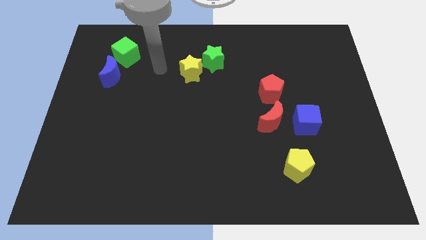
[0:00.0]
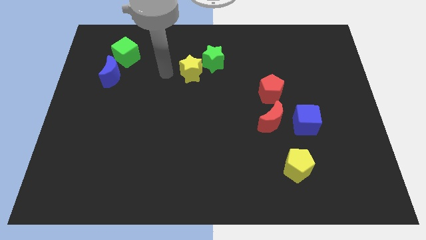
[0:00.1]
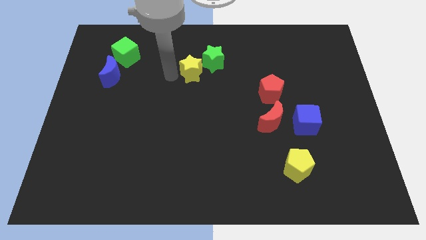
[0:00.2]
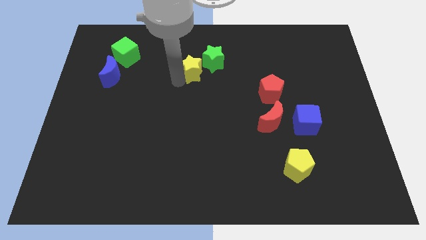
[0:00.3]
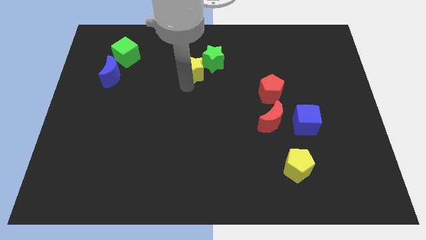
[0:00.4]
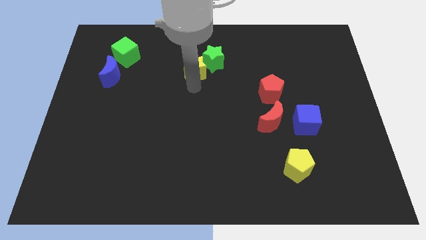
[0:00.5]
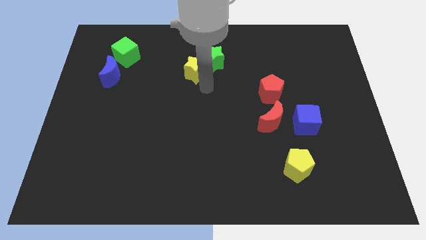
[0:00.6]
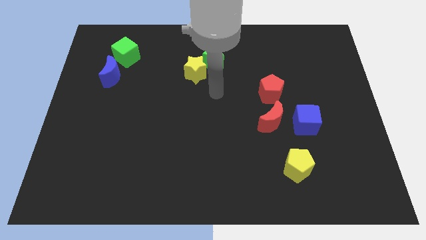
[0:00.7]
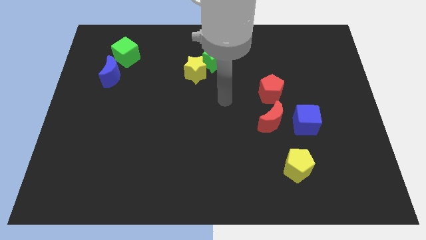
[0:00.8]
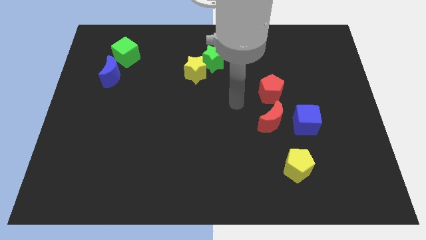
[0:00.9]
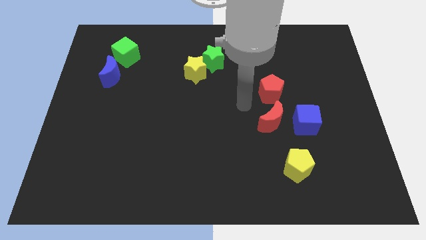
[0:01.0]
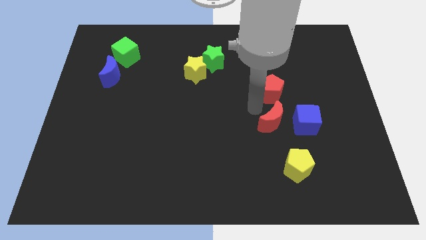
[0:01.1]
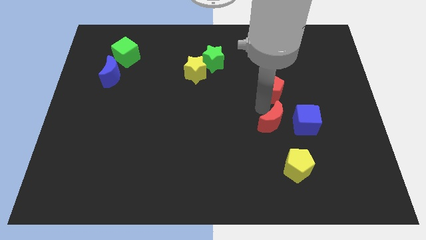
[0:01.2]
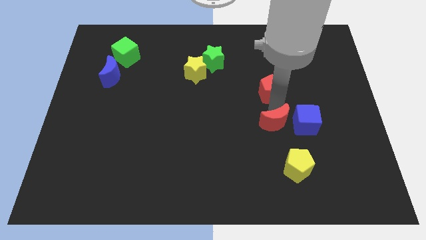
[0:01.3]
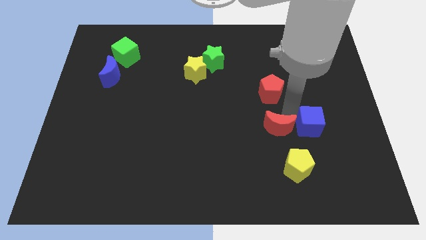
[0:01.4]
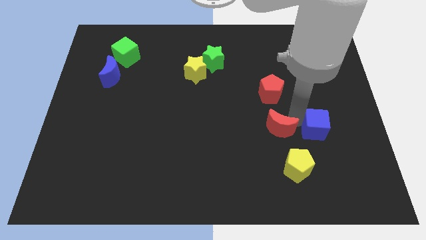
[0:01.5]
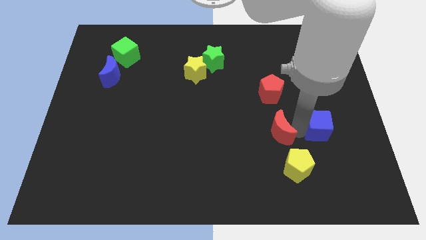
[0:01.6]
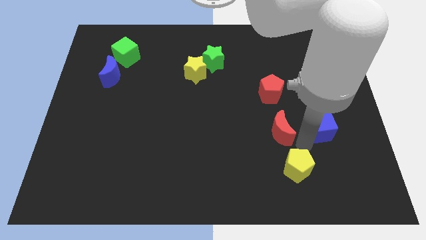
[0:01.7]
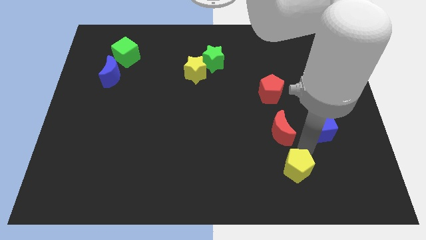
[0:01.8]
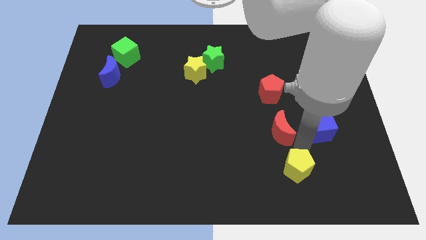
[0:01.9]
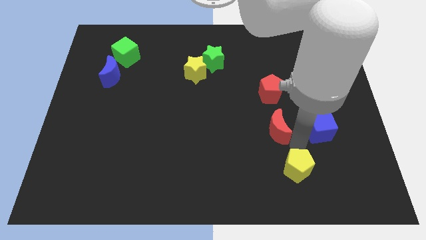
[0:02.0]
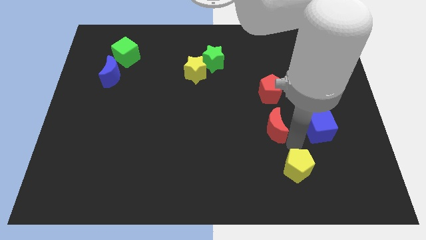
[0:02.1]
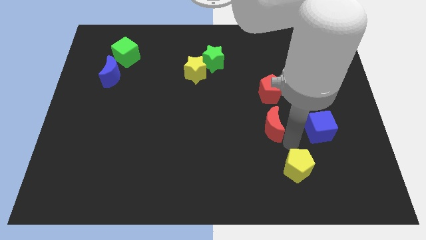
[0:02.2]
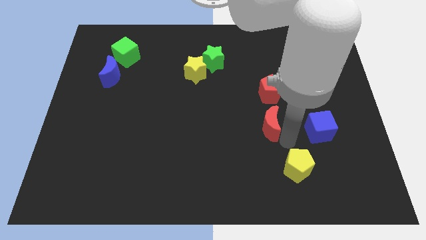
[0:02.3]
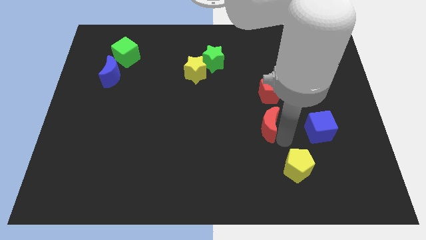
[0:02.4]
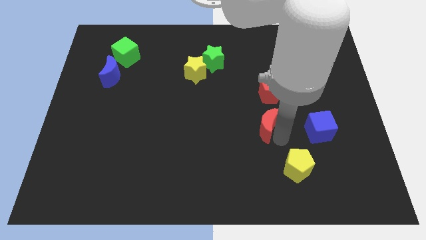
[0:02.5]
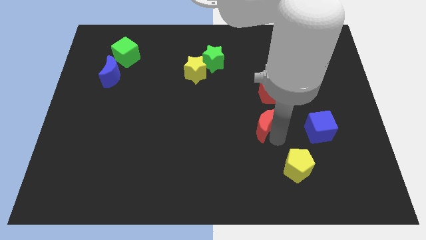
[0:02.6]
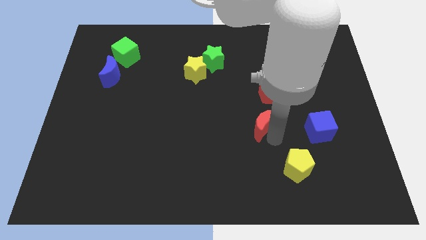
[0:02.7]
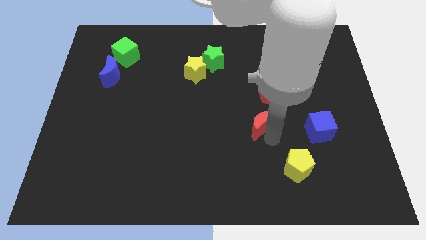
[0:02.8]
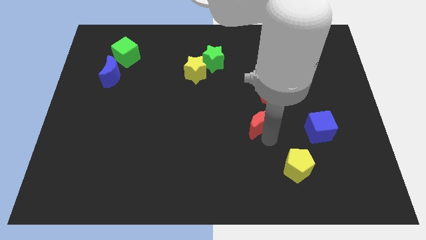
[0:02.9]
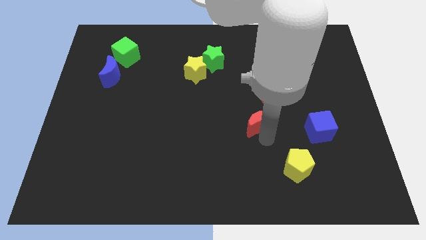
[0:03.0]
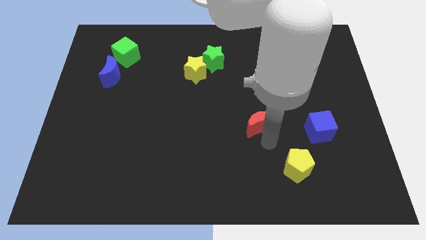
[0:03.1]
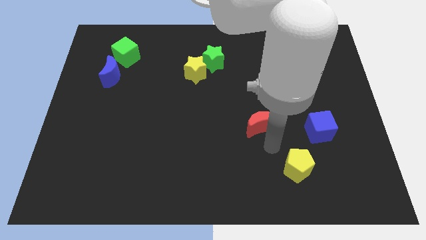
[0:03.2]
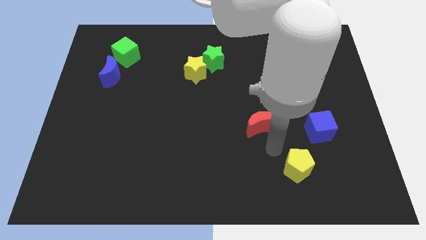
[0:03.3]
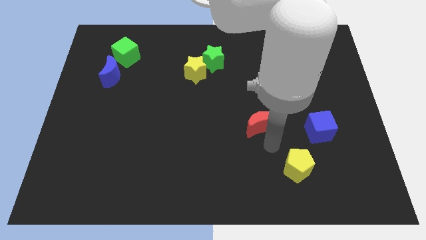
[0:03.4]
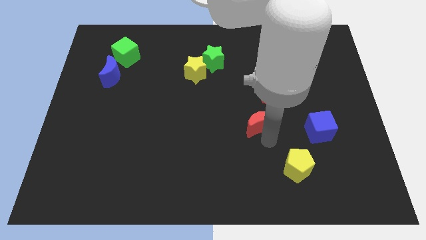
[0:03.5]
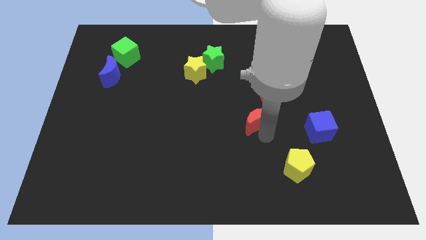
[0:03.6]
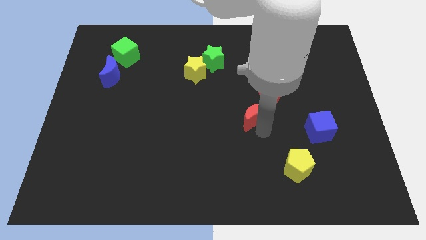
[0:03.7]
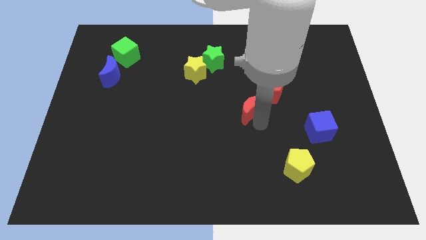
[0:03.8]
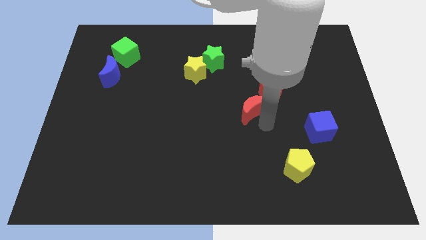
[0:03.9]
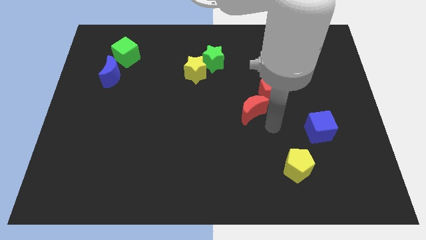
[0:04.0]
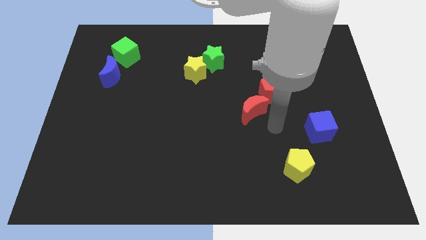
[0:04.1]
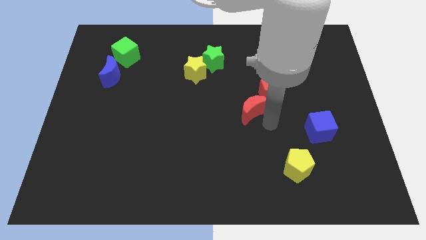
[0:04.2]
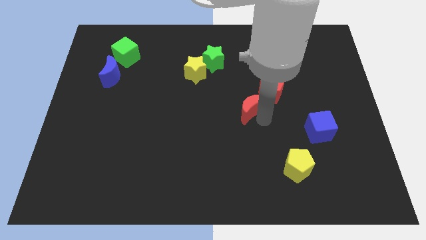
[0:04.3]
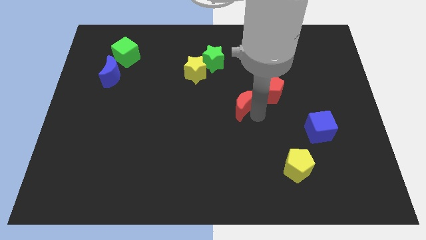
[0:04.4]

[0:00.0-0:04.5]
move the red moon up and then left a little bit

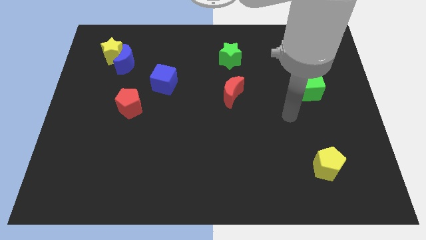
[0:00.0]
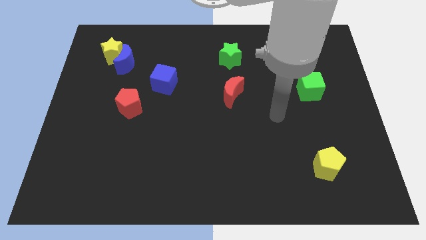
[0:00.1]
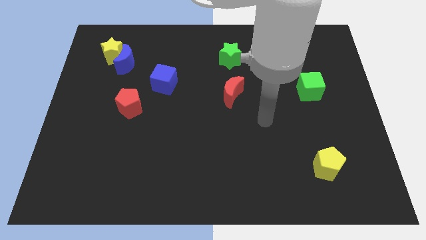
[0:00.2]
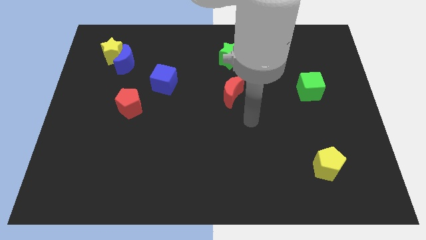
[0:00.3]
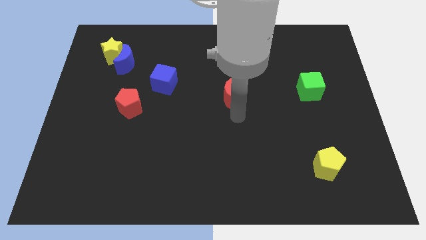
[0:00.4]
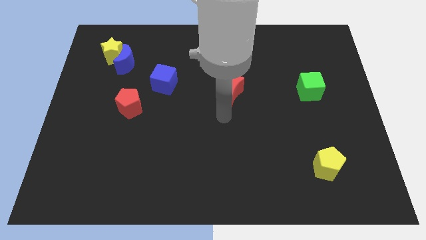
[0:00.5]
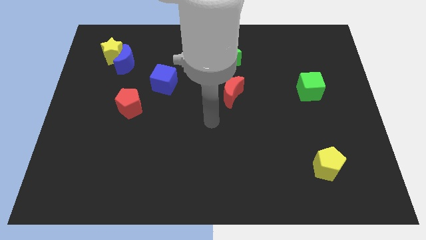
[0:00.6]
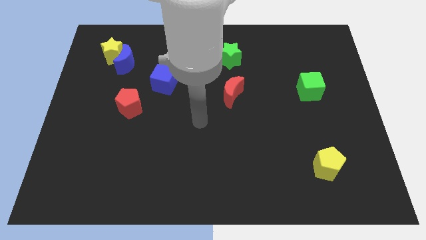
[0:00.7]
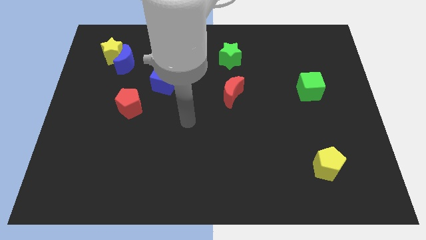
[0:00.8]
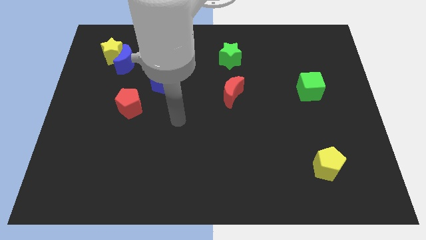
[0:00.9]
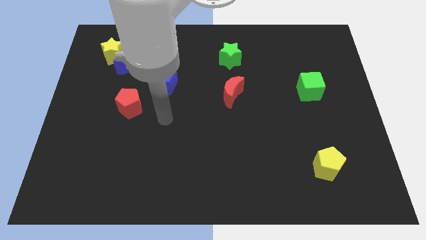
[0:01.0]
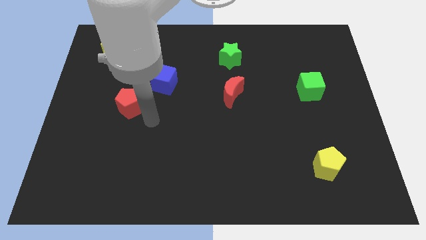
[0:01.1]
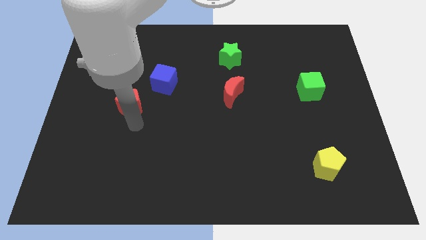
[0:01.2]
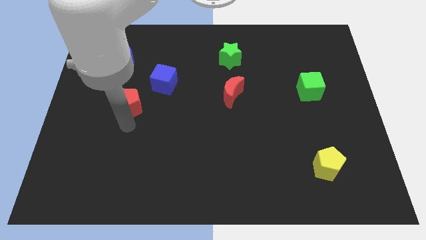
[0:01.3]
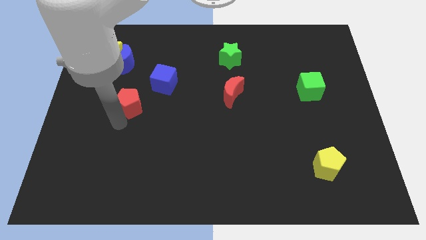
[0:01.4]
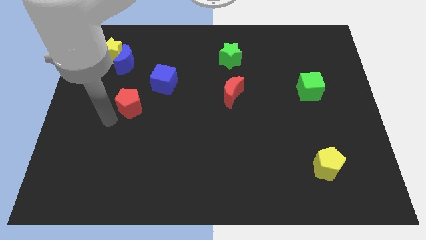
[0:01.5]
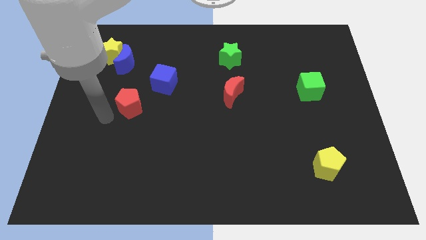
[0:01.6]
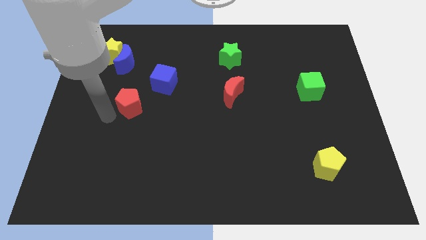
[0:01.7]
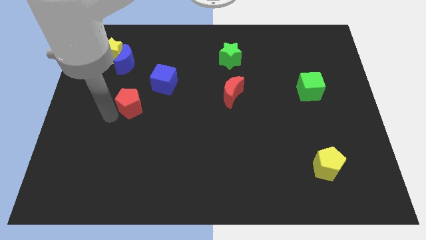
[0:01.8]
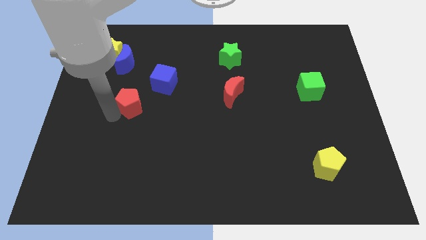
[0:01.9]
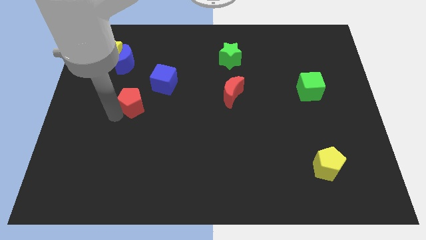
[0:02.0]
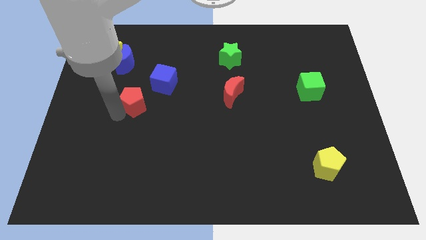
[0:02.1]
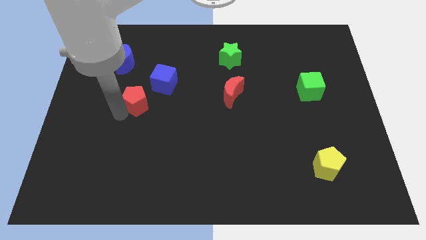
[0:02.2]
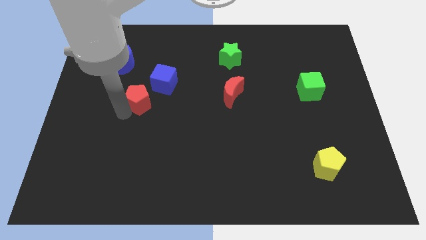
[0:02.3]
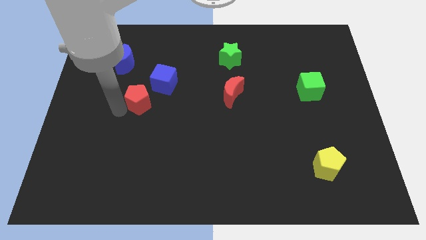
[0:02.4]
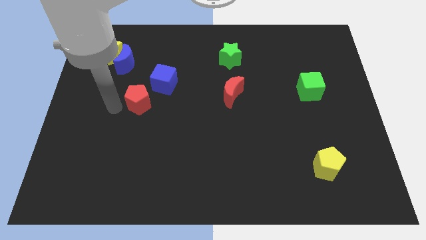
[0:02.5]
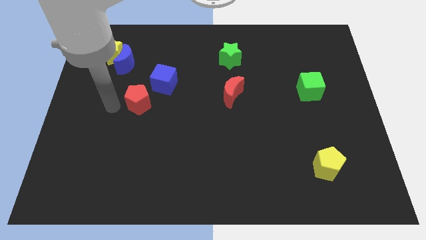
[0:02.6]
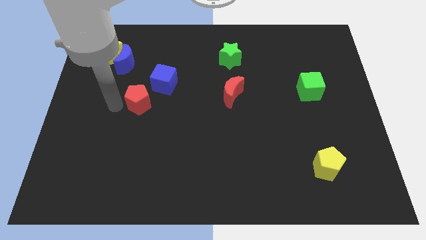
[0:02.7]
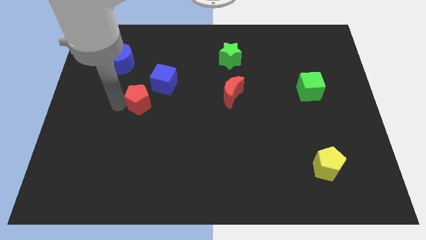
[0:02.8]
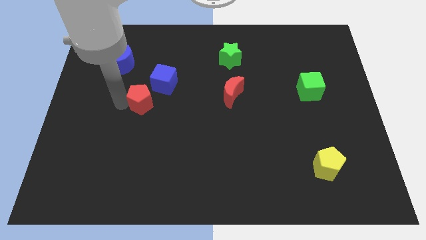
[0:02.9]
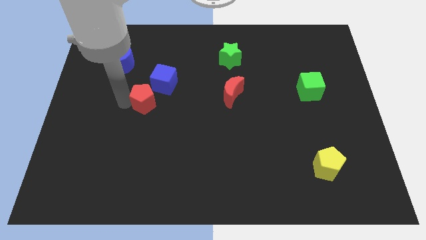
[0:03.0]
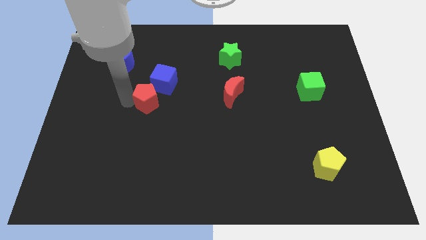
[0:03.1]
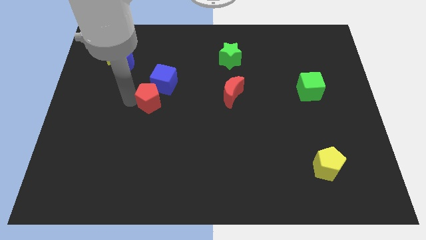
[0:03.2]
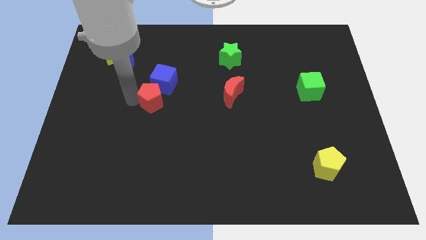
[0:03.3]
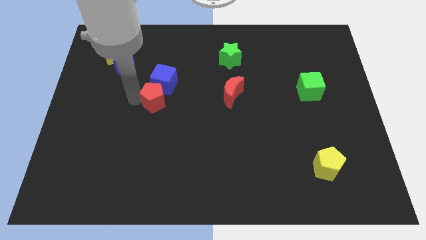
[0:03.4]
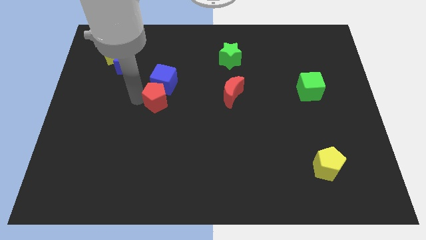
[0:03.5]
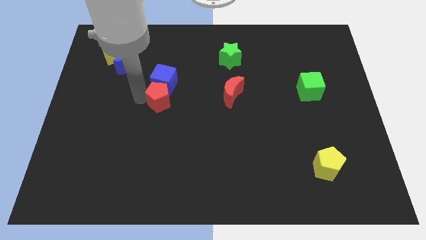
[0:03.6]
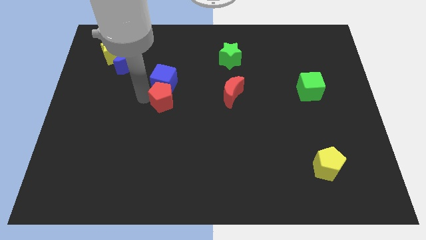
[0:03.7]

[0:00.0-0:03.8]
slide the red pentagon slightly right
